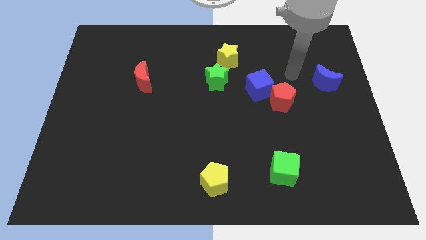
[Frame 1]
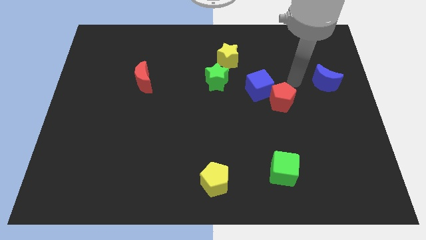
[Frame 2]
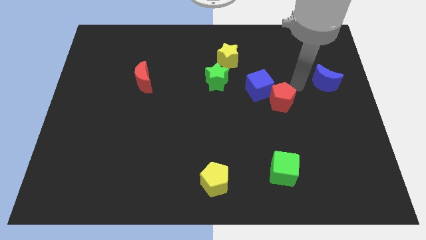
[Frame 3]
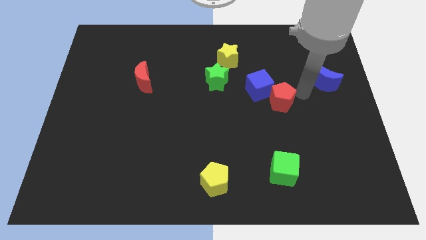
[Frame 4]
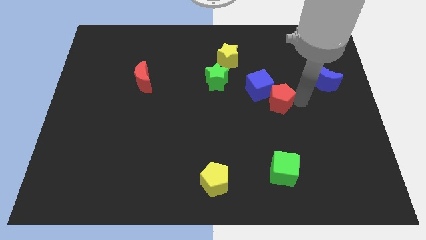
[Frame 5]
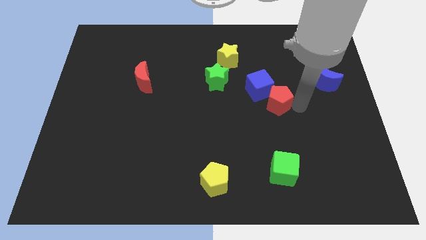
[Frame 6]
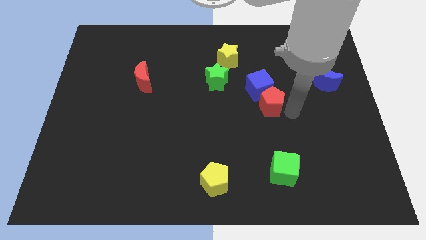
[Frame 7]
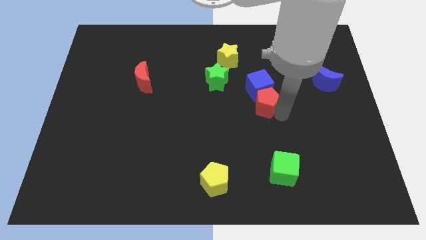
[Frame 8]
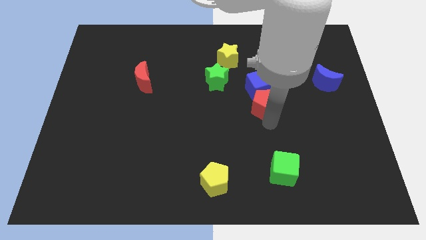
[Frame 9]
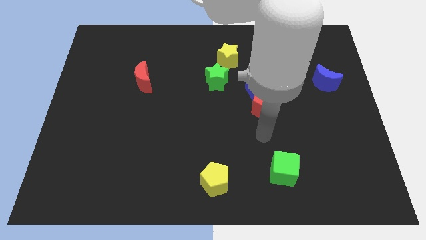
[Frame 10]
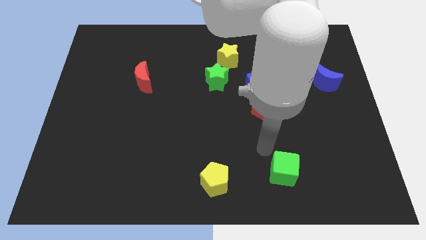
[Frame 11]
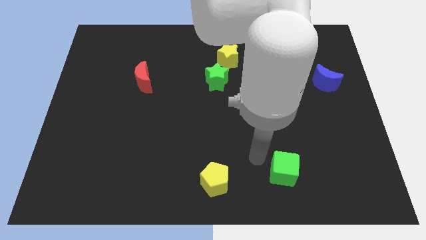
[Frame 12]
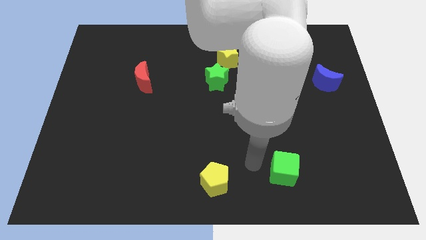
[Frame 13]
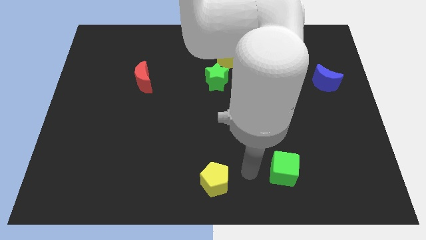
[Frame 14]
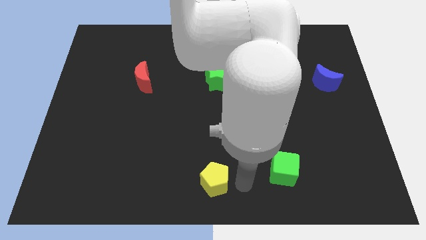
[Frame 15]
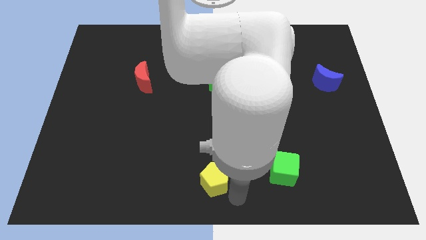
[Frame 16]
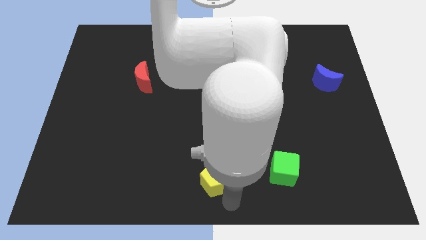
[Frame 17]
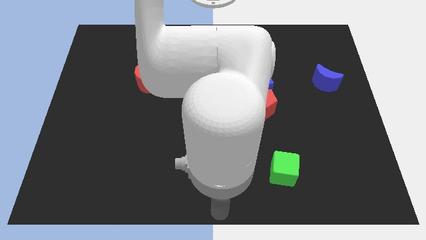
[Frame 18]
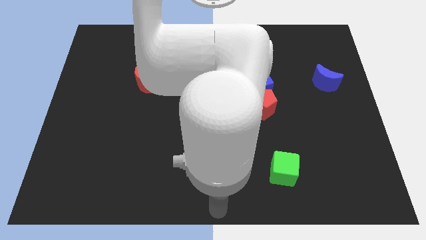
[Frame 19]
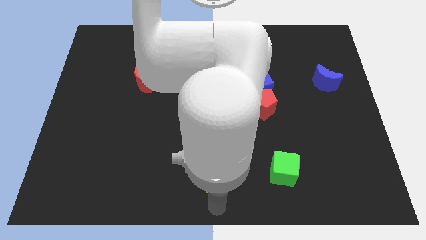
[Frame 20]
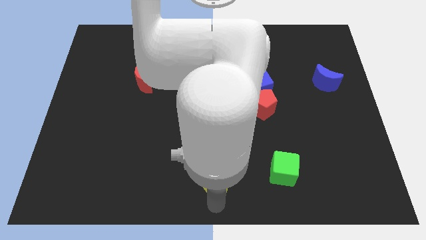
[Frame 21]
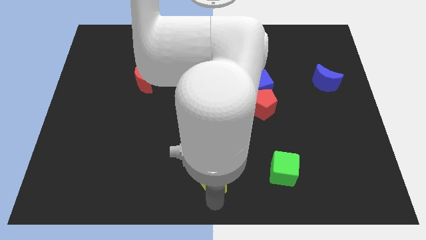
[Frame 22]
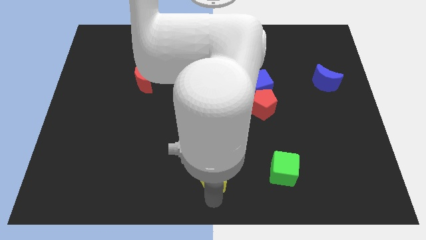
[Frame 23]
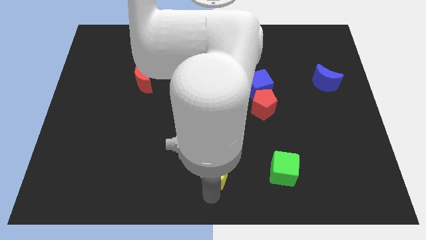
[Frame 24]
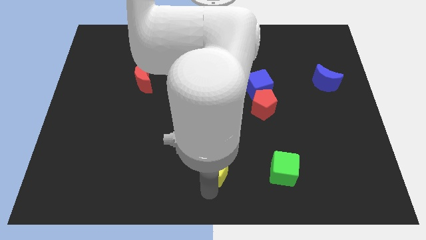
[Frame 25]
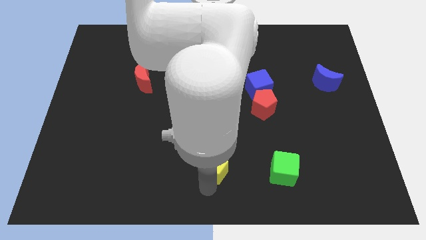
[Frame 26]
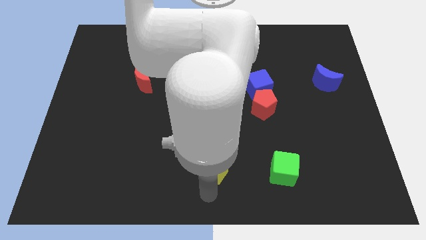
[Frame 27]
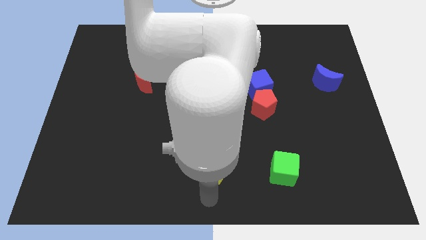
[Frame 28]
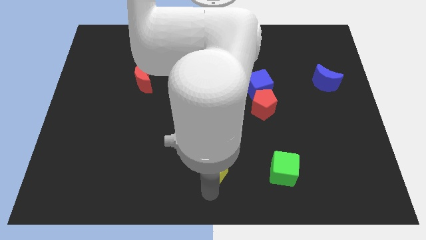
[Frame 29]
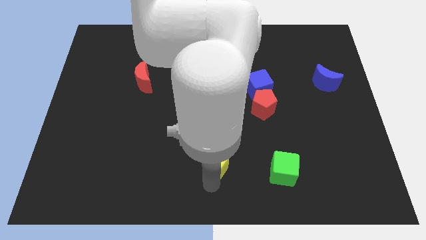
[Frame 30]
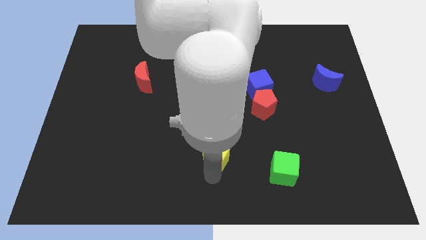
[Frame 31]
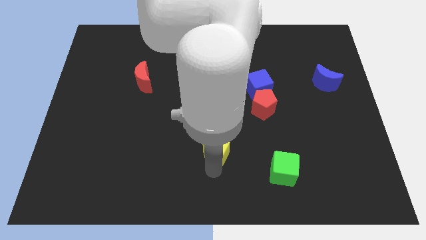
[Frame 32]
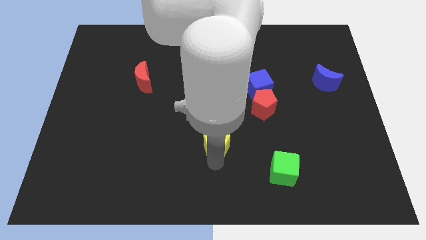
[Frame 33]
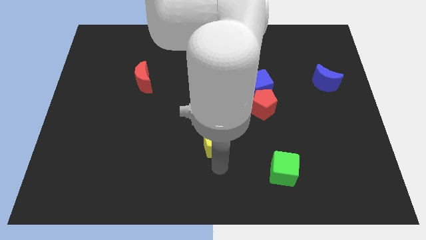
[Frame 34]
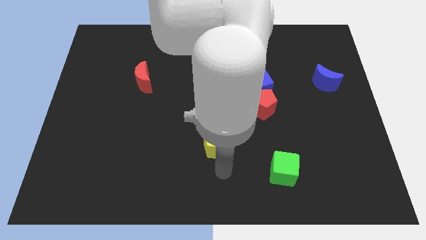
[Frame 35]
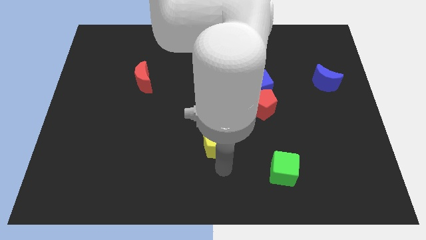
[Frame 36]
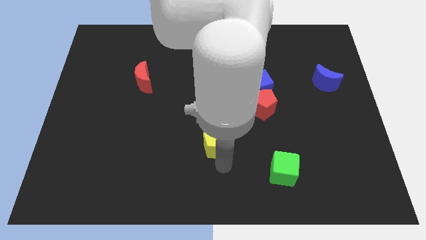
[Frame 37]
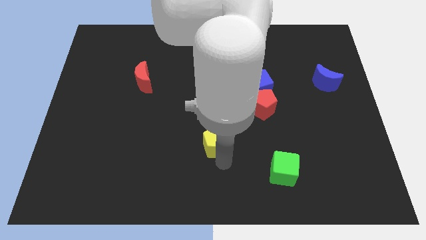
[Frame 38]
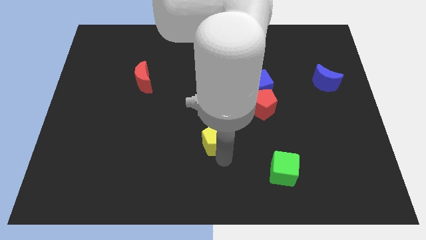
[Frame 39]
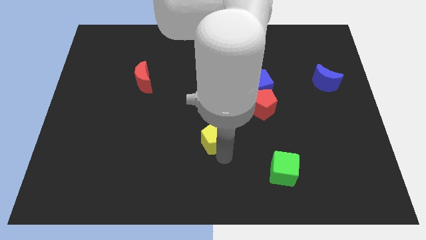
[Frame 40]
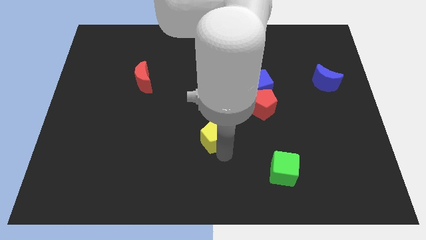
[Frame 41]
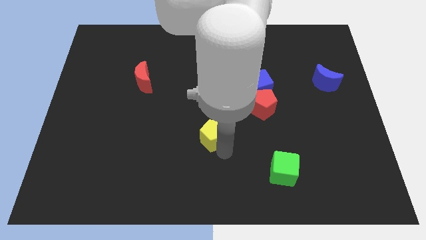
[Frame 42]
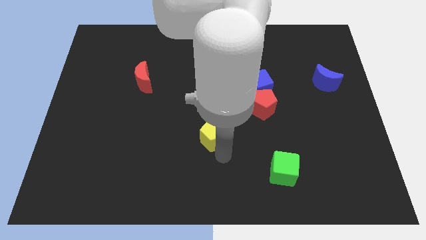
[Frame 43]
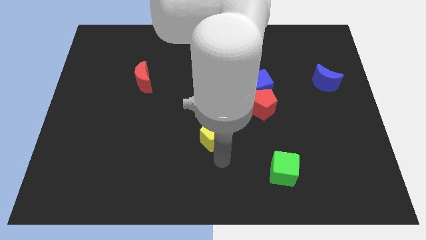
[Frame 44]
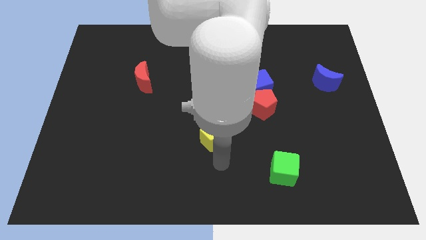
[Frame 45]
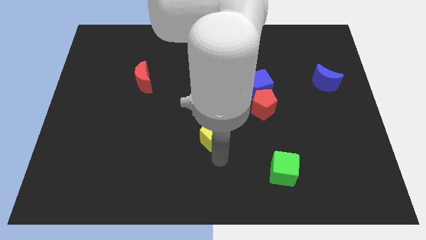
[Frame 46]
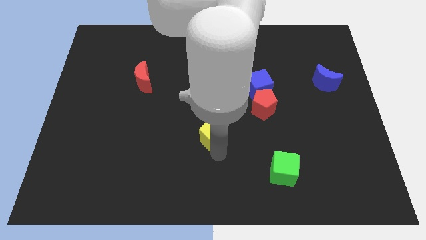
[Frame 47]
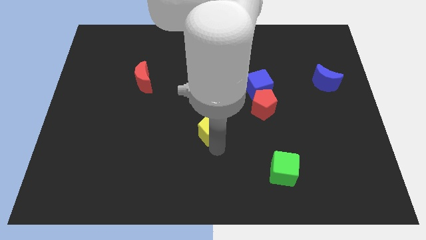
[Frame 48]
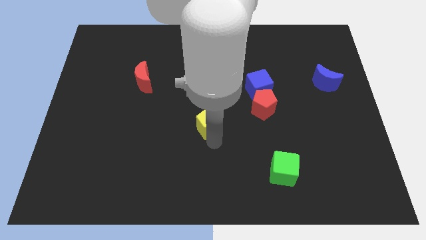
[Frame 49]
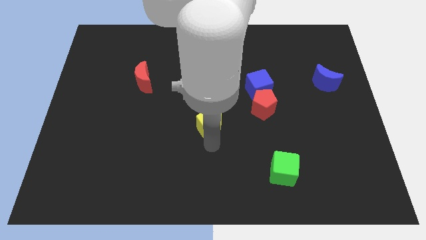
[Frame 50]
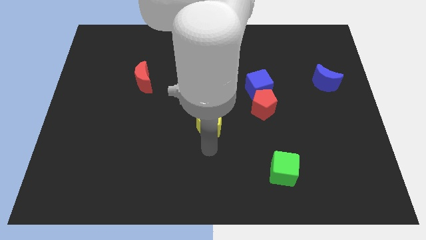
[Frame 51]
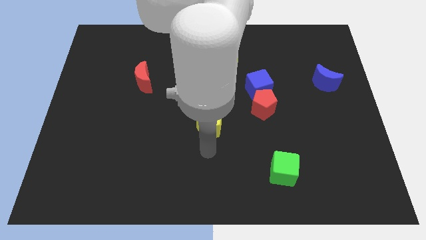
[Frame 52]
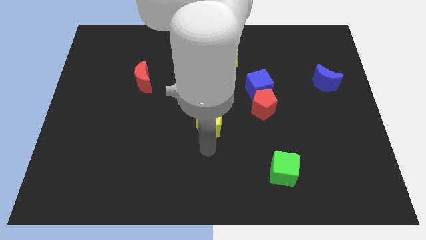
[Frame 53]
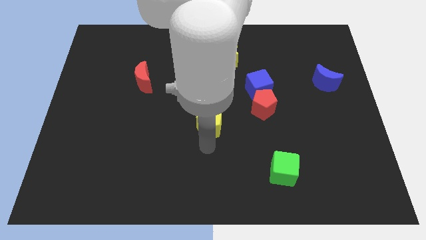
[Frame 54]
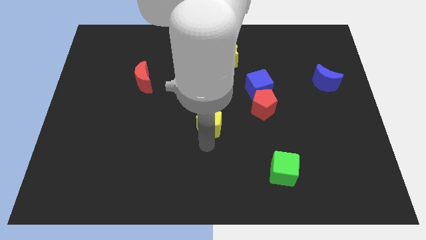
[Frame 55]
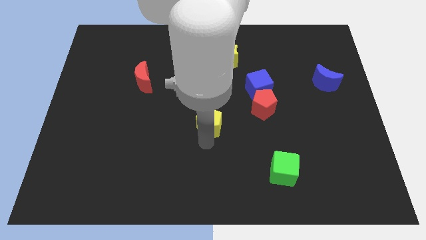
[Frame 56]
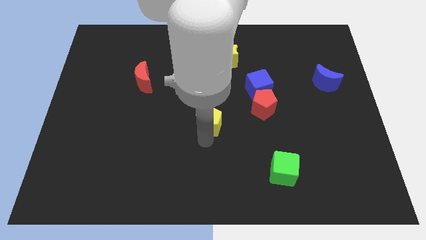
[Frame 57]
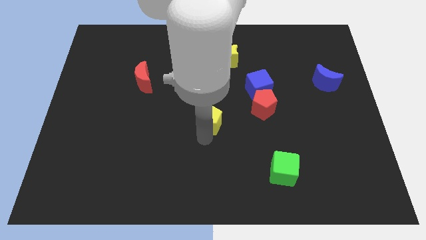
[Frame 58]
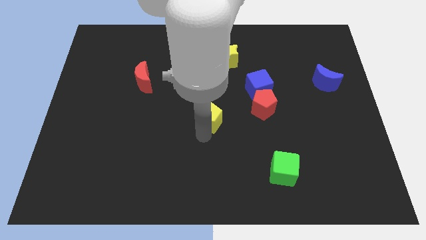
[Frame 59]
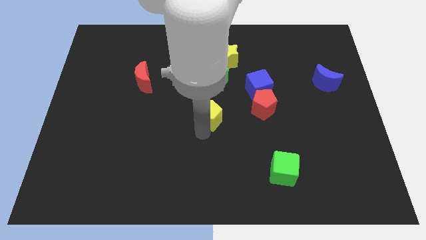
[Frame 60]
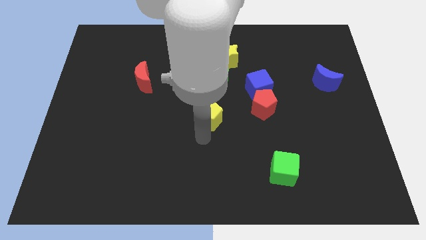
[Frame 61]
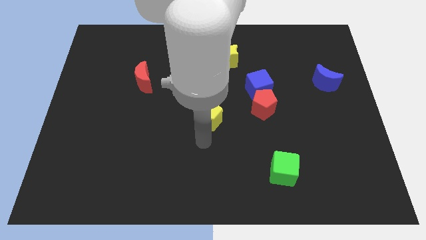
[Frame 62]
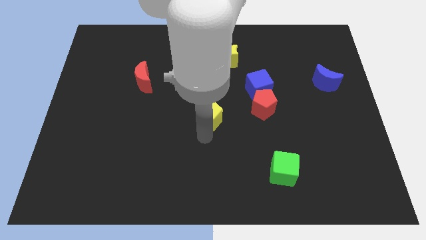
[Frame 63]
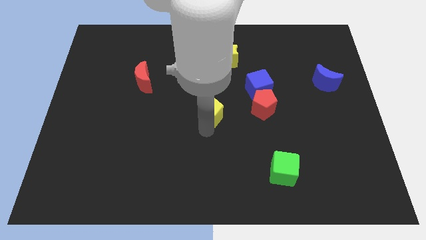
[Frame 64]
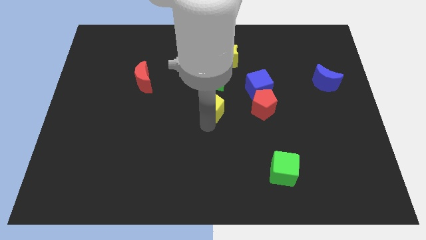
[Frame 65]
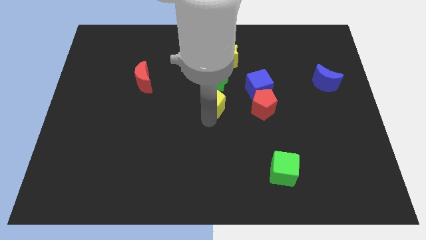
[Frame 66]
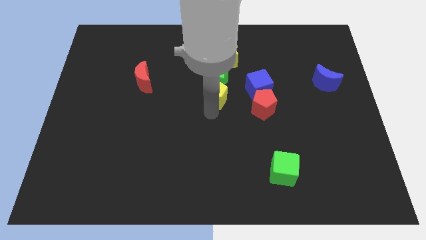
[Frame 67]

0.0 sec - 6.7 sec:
move the yellow pentagon to the green star

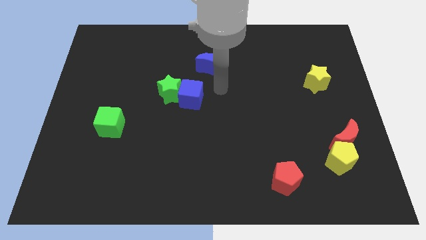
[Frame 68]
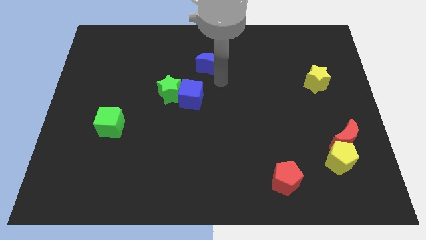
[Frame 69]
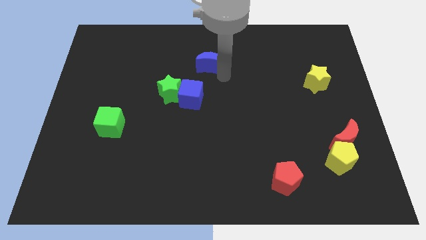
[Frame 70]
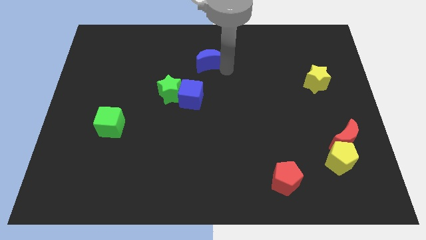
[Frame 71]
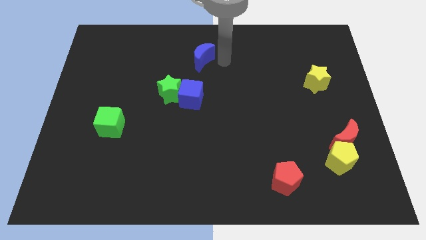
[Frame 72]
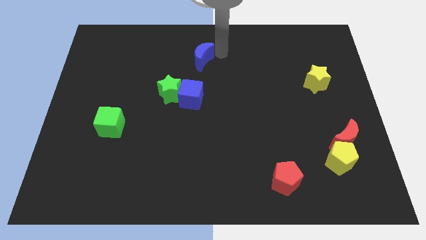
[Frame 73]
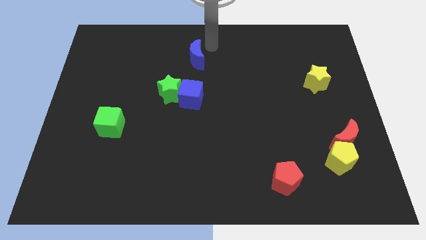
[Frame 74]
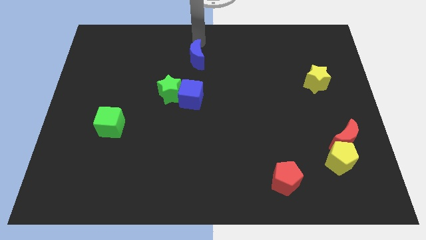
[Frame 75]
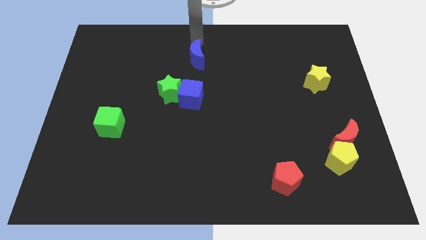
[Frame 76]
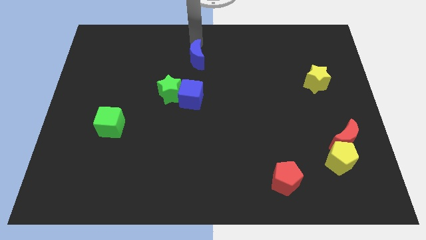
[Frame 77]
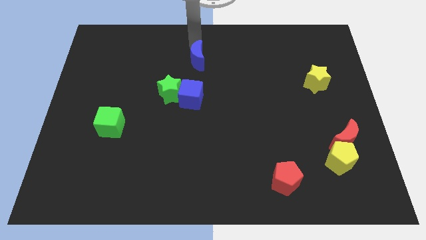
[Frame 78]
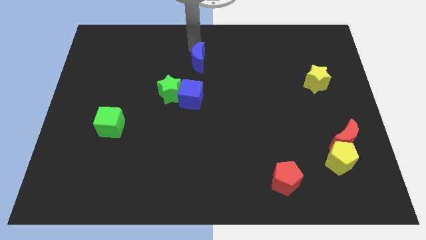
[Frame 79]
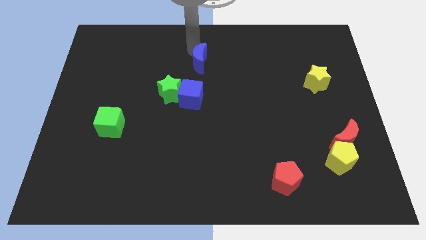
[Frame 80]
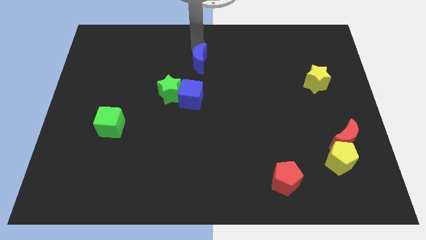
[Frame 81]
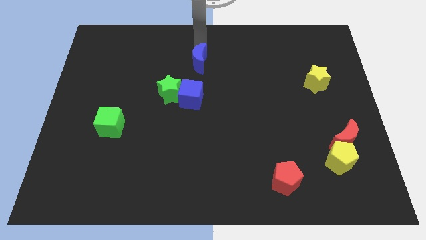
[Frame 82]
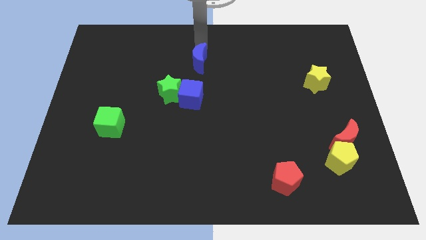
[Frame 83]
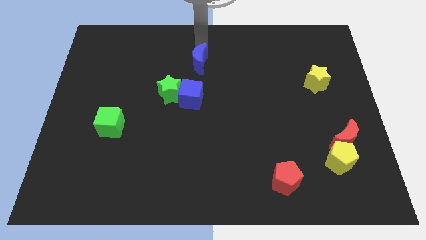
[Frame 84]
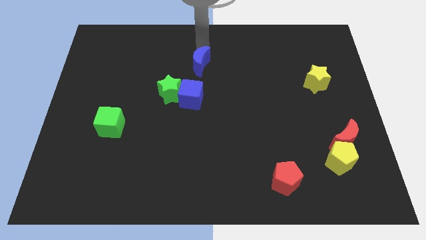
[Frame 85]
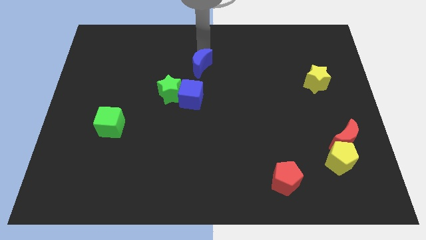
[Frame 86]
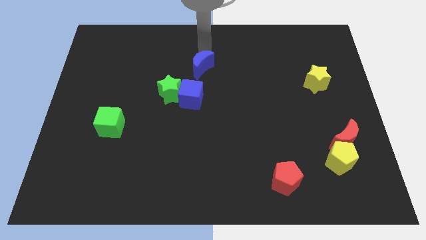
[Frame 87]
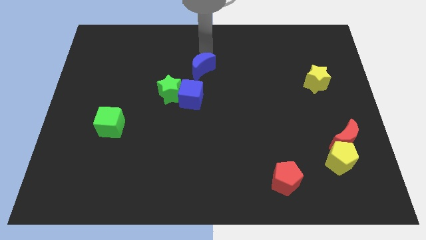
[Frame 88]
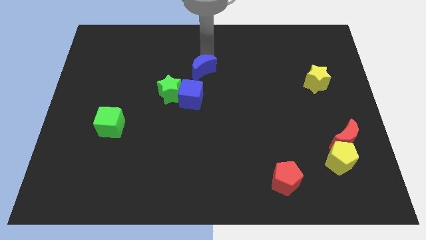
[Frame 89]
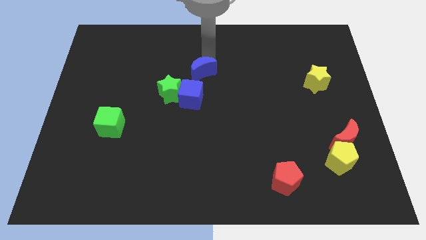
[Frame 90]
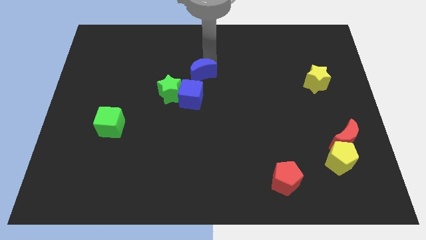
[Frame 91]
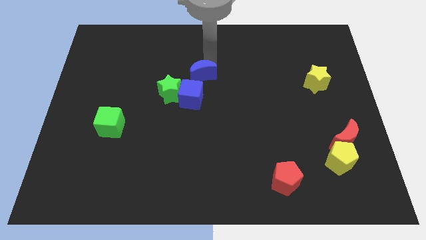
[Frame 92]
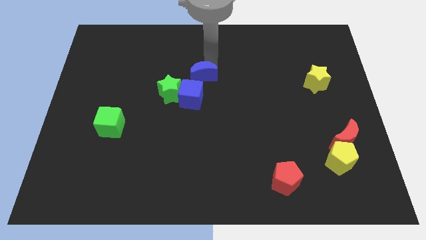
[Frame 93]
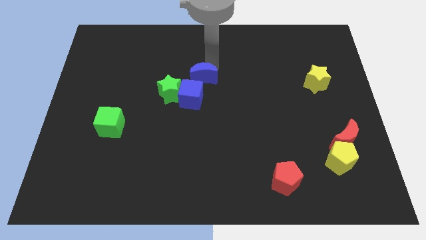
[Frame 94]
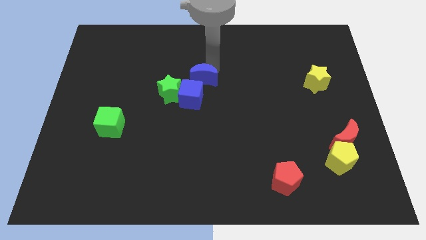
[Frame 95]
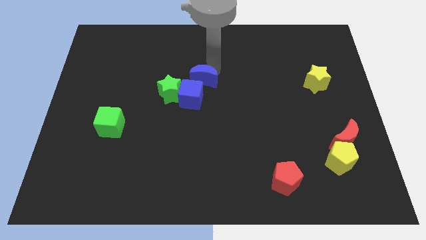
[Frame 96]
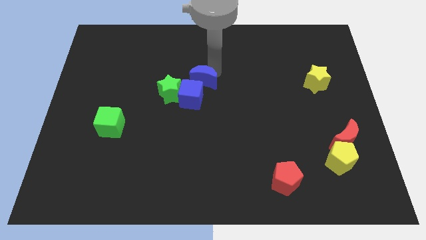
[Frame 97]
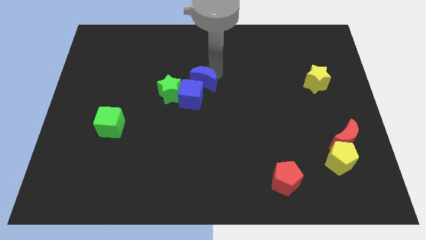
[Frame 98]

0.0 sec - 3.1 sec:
slide the blue moon towards the blue cube
